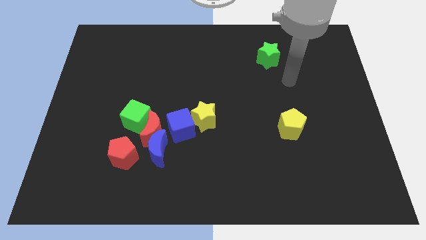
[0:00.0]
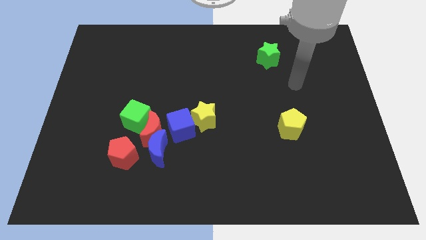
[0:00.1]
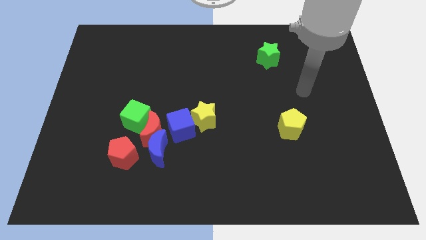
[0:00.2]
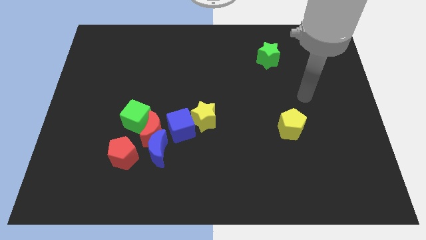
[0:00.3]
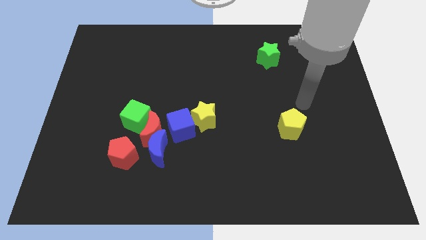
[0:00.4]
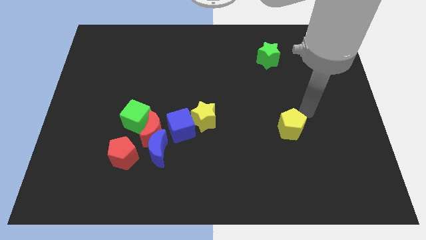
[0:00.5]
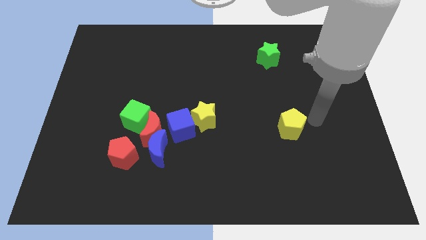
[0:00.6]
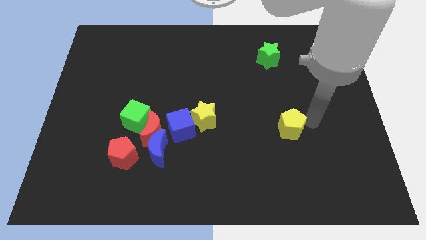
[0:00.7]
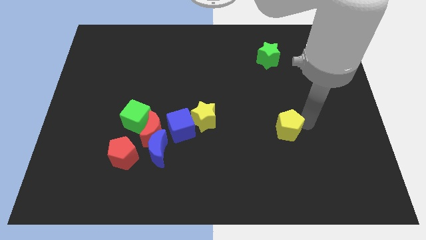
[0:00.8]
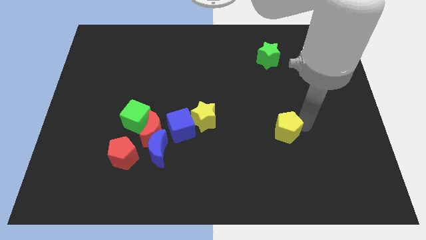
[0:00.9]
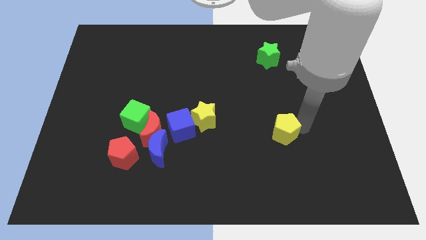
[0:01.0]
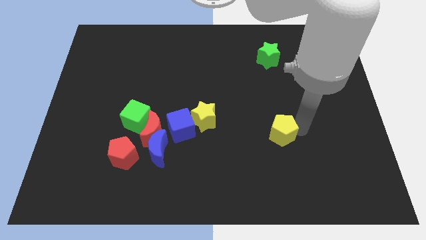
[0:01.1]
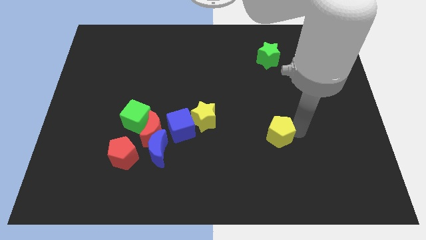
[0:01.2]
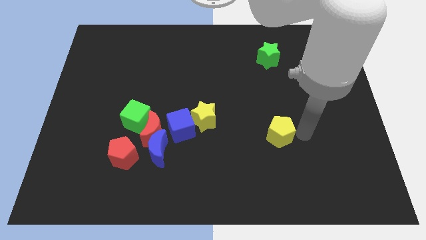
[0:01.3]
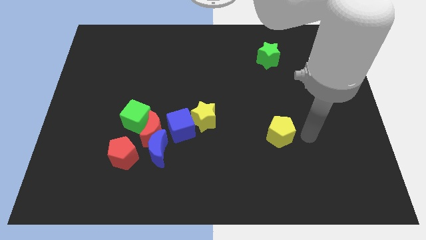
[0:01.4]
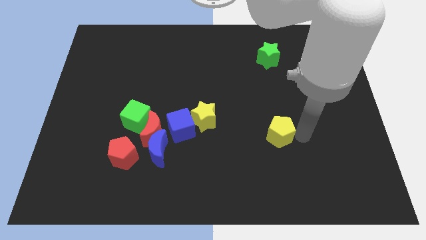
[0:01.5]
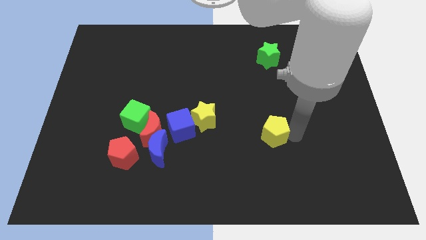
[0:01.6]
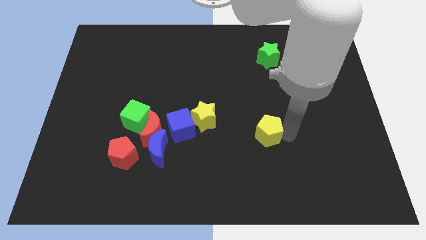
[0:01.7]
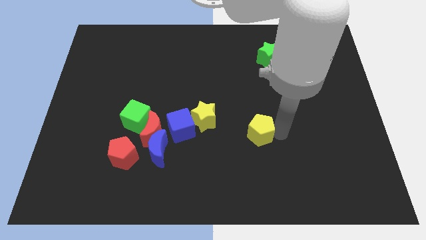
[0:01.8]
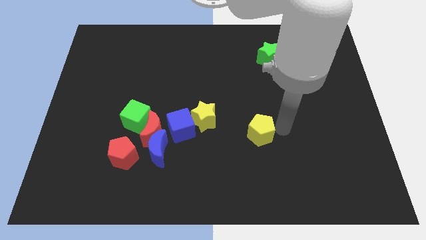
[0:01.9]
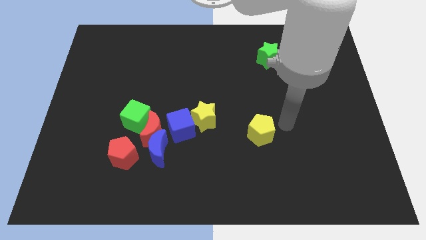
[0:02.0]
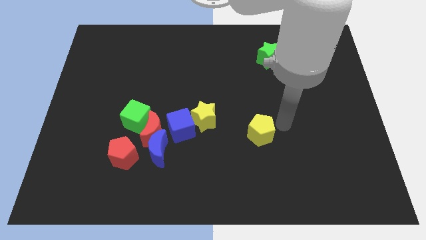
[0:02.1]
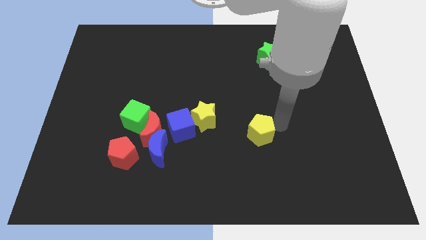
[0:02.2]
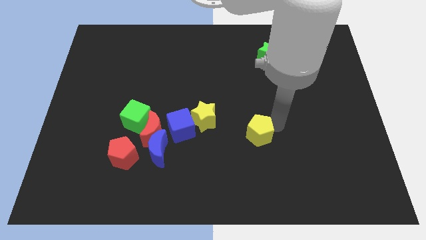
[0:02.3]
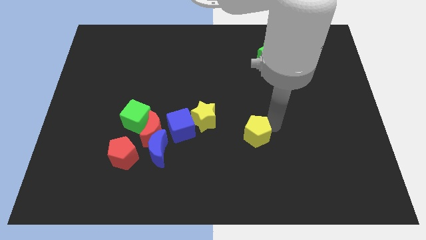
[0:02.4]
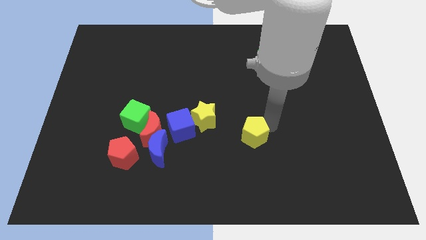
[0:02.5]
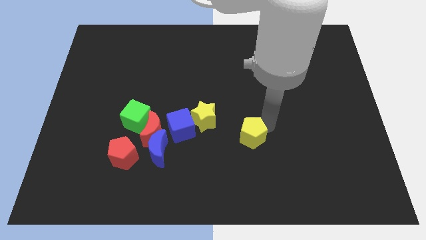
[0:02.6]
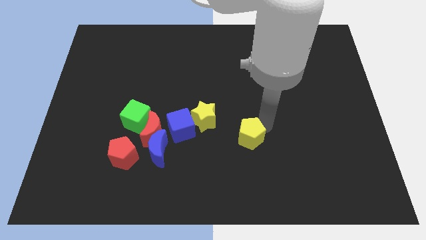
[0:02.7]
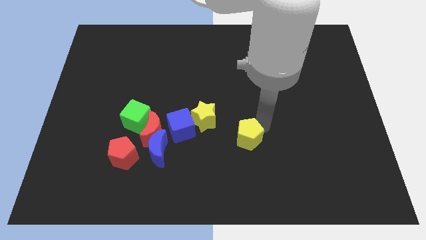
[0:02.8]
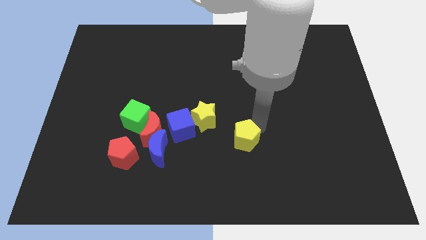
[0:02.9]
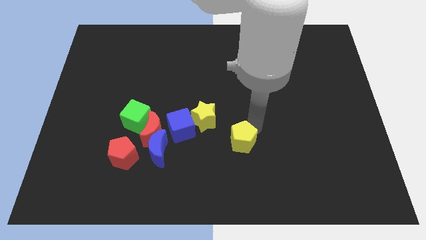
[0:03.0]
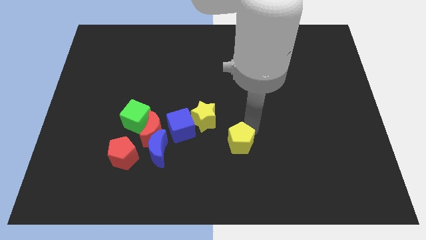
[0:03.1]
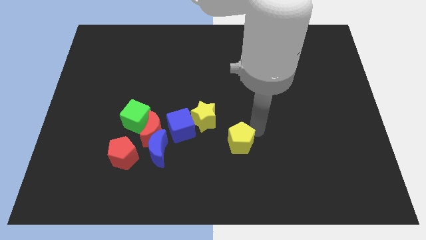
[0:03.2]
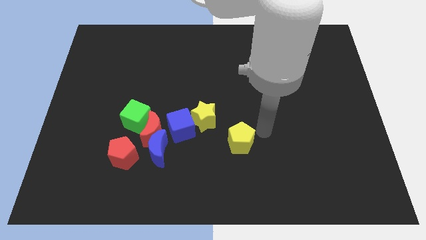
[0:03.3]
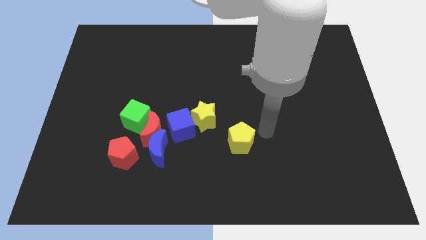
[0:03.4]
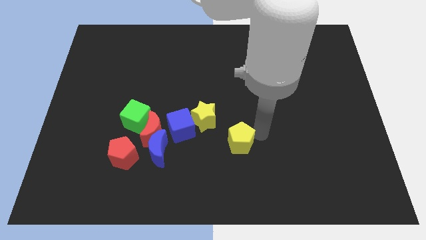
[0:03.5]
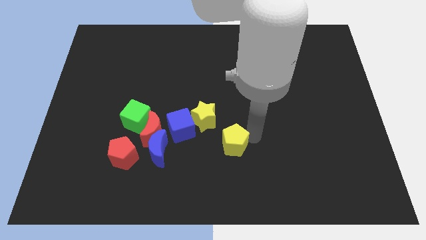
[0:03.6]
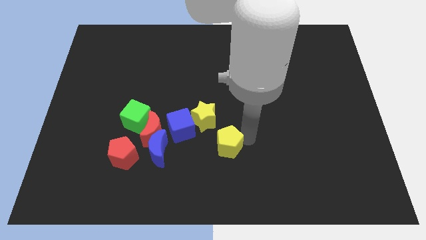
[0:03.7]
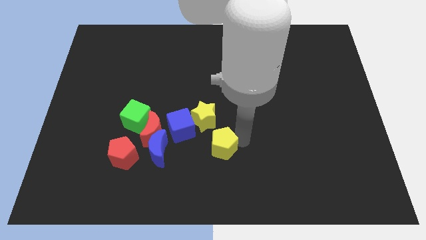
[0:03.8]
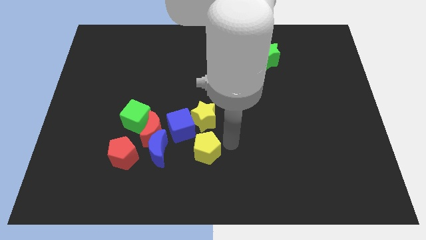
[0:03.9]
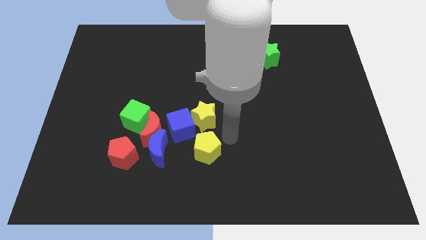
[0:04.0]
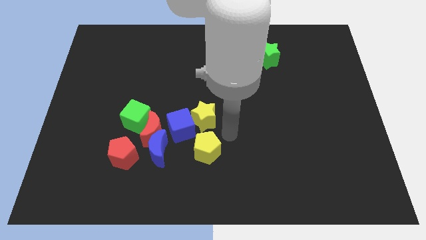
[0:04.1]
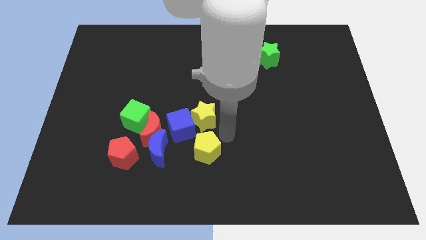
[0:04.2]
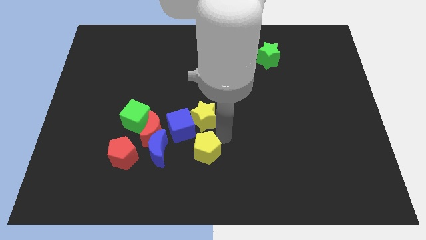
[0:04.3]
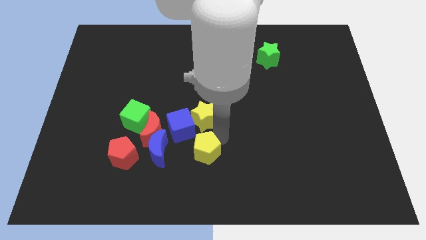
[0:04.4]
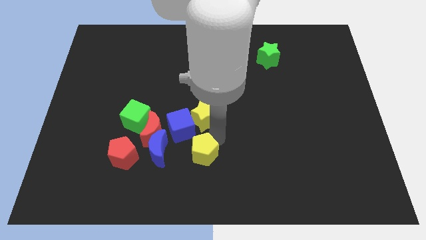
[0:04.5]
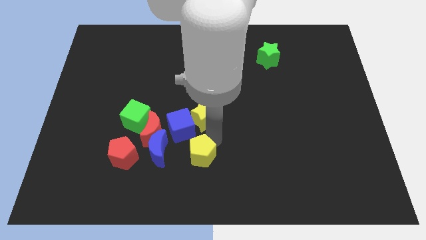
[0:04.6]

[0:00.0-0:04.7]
push the yellow pentagon to the bottom of the blue cube

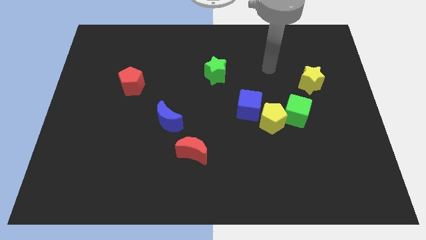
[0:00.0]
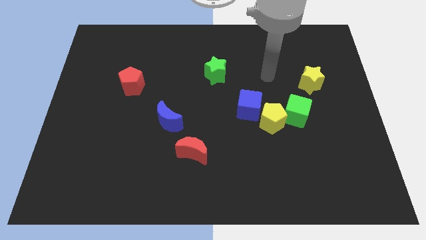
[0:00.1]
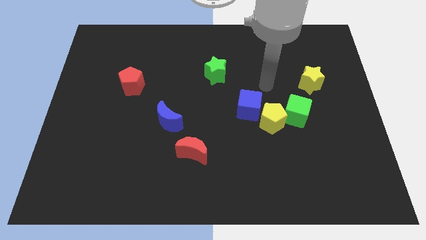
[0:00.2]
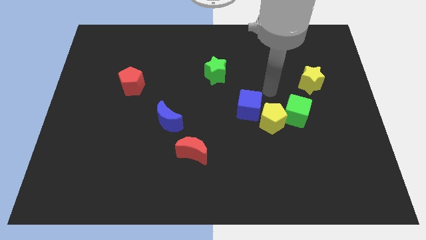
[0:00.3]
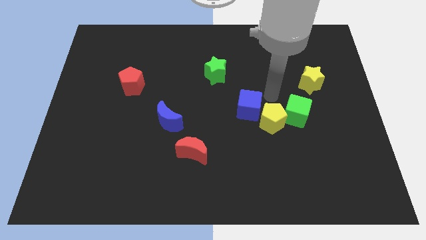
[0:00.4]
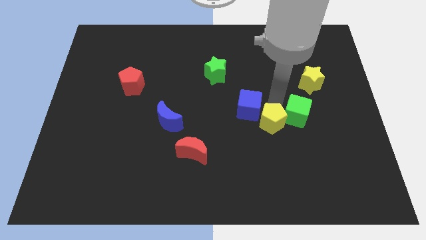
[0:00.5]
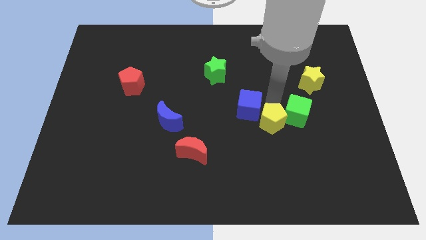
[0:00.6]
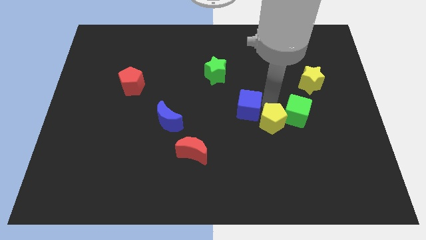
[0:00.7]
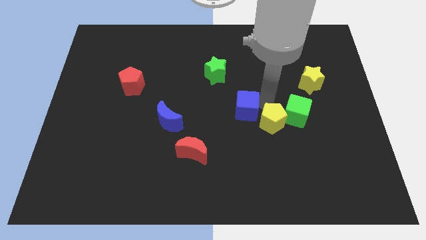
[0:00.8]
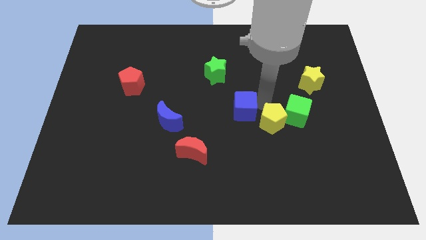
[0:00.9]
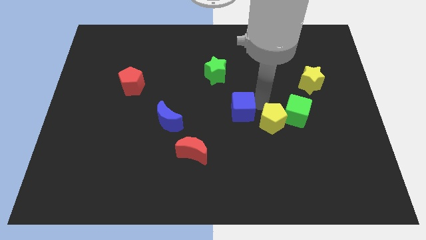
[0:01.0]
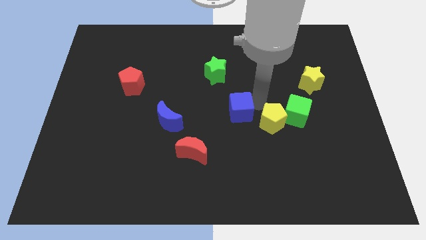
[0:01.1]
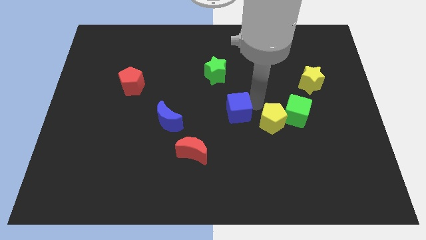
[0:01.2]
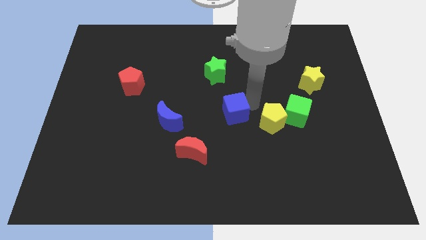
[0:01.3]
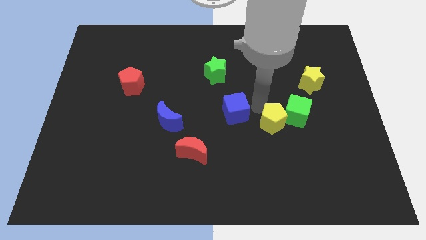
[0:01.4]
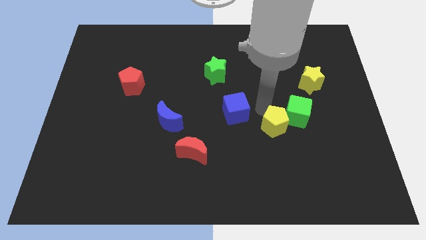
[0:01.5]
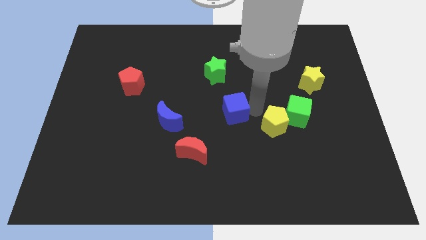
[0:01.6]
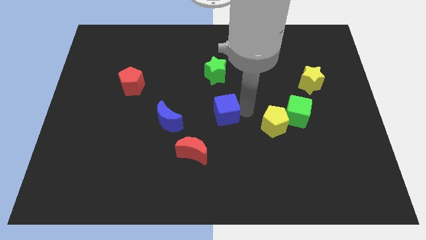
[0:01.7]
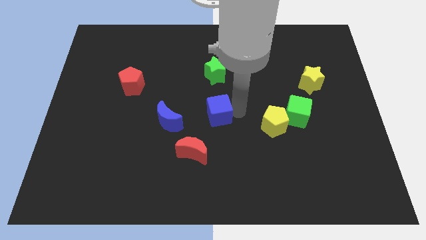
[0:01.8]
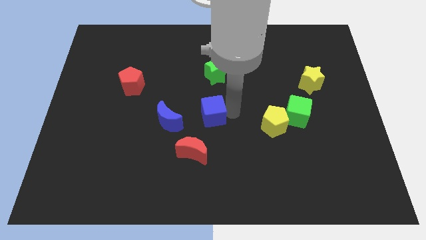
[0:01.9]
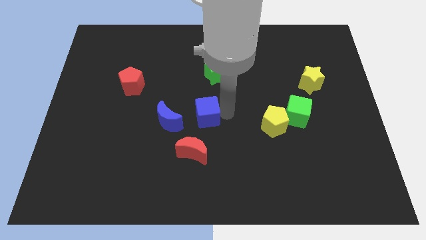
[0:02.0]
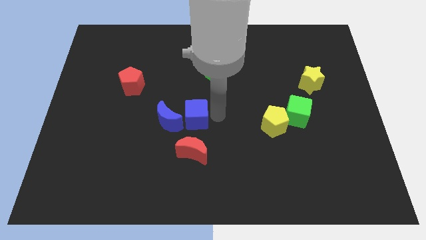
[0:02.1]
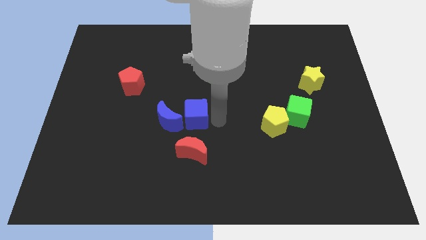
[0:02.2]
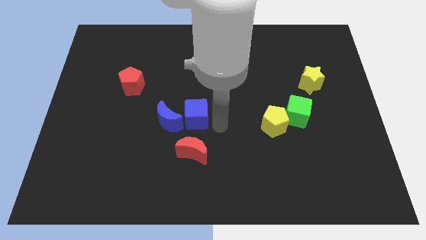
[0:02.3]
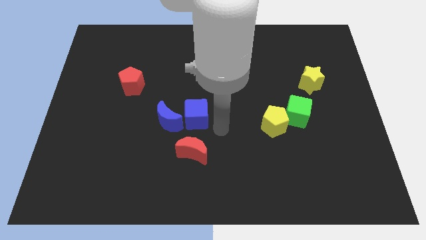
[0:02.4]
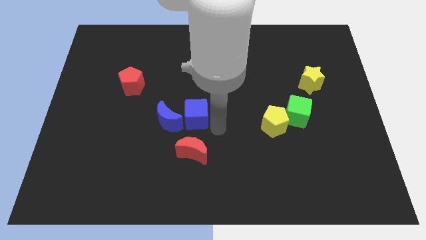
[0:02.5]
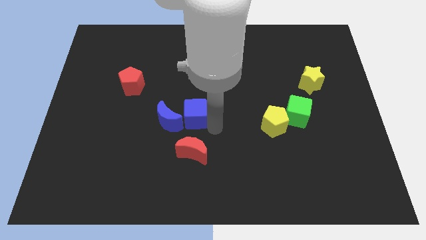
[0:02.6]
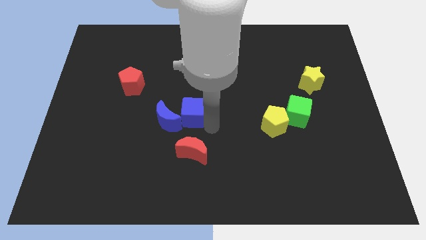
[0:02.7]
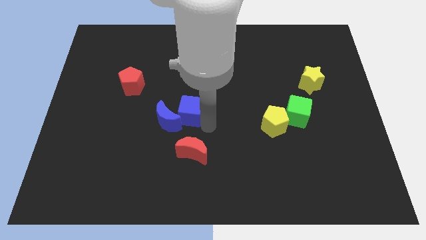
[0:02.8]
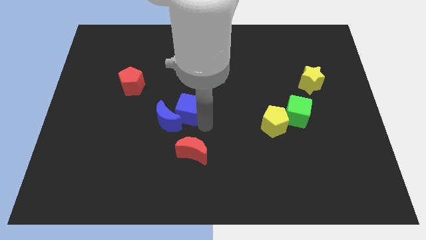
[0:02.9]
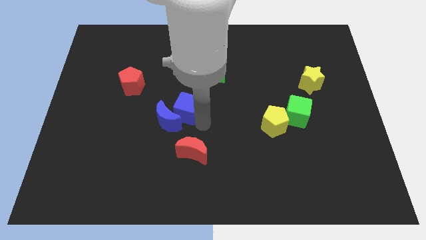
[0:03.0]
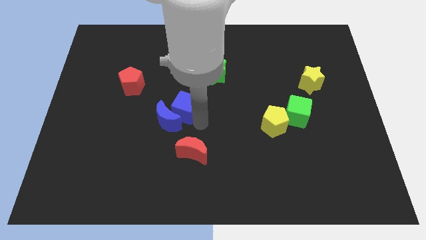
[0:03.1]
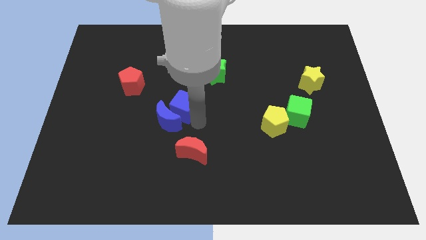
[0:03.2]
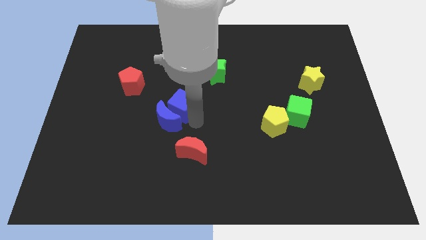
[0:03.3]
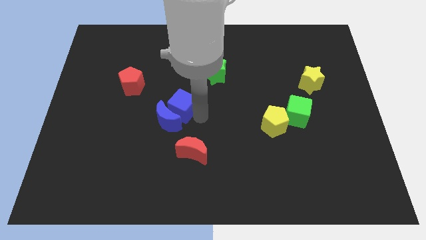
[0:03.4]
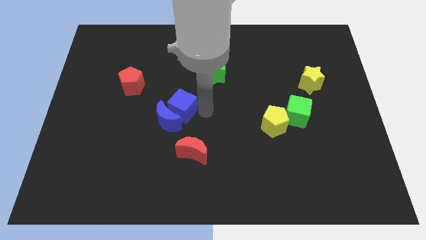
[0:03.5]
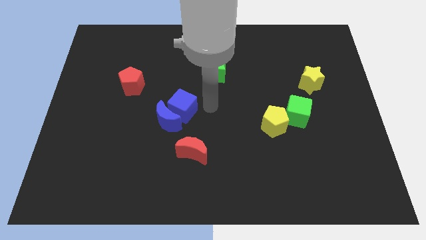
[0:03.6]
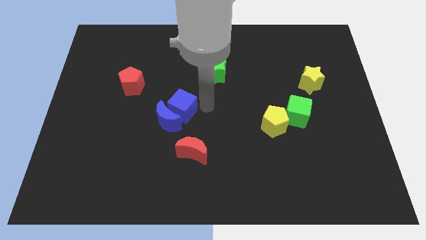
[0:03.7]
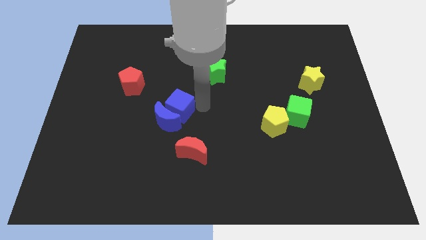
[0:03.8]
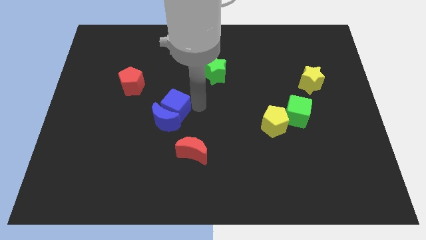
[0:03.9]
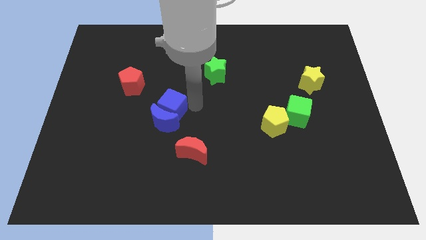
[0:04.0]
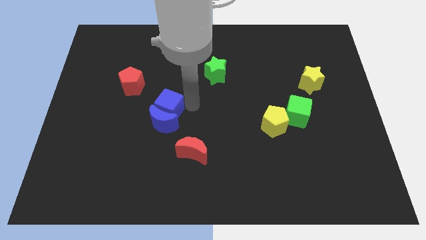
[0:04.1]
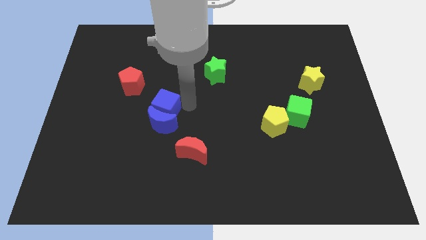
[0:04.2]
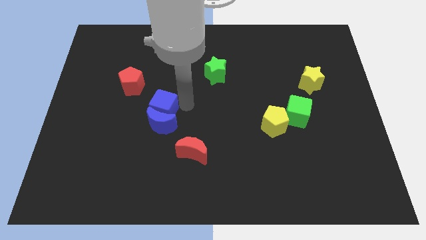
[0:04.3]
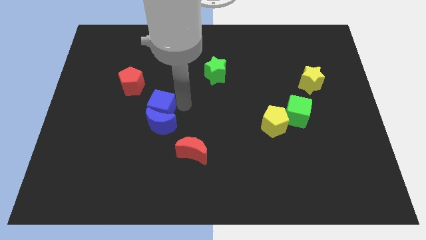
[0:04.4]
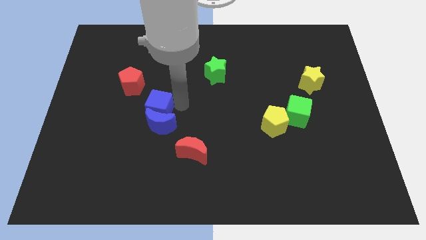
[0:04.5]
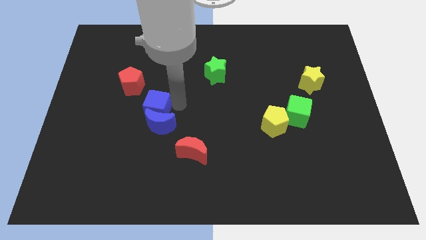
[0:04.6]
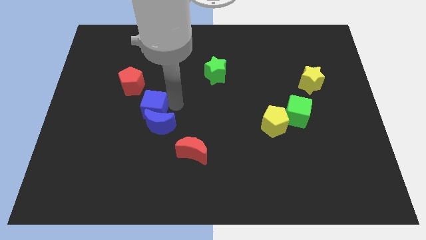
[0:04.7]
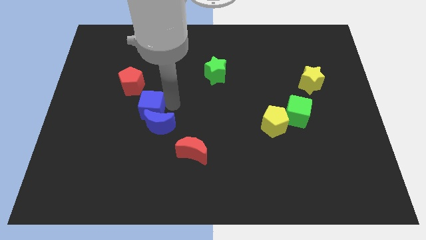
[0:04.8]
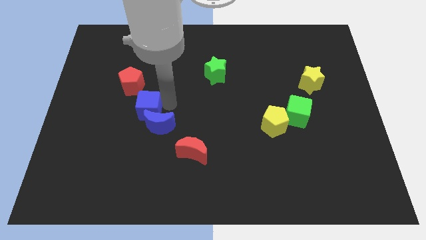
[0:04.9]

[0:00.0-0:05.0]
push the blue cube to the bottom of the red pentagon
